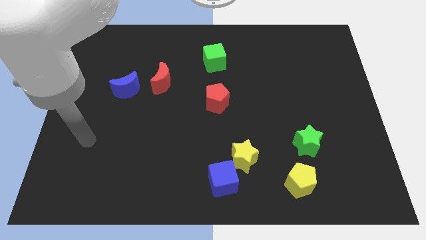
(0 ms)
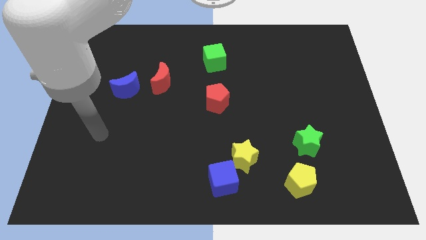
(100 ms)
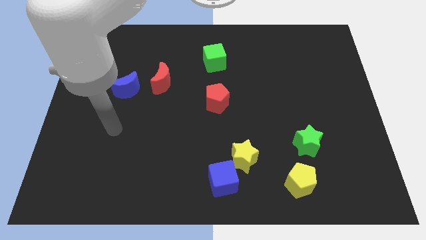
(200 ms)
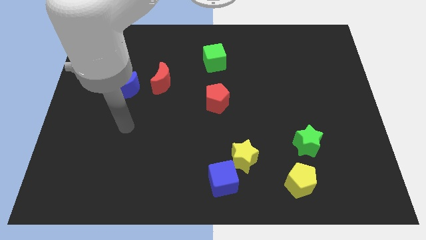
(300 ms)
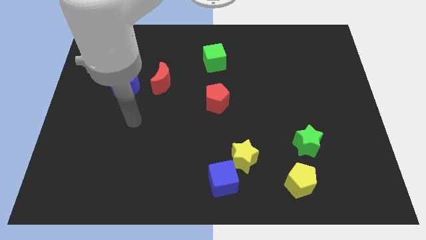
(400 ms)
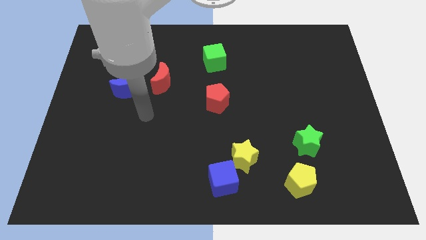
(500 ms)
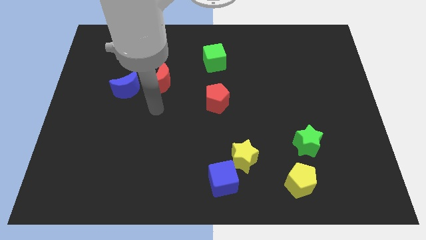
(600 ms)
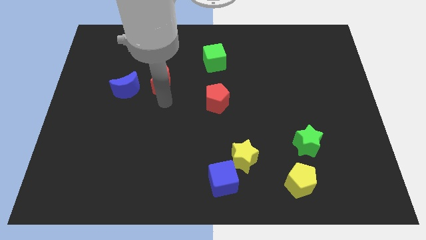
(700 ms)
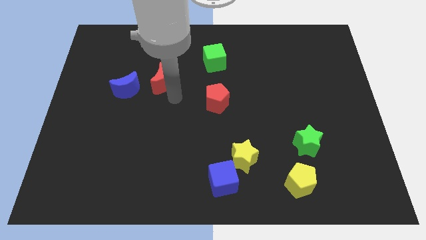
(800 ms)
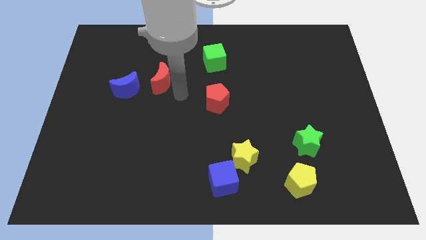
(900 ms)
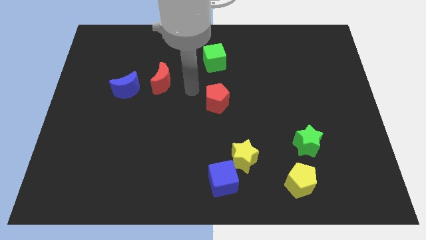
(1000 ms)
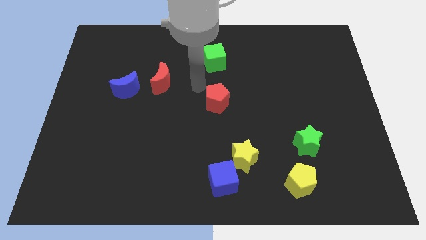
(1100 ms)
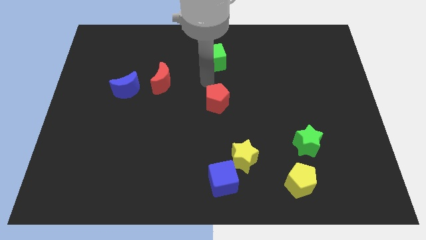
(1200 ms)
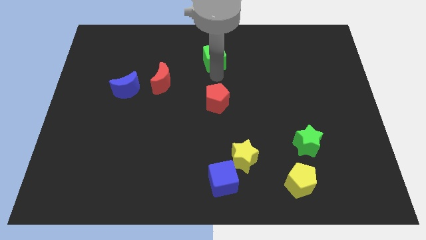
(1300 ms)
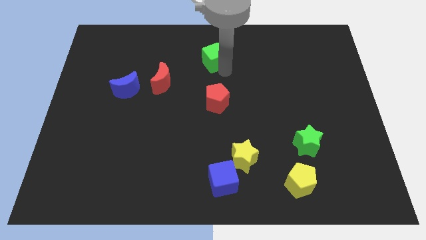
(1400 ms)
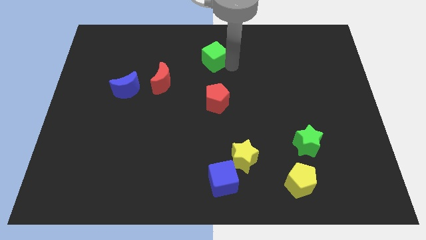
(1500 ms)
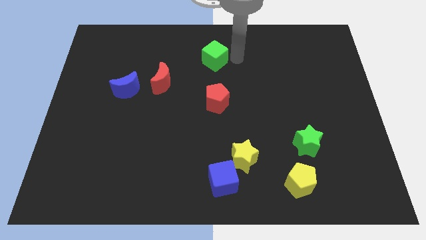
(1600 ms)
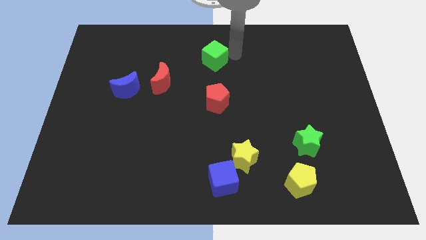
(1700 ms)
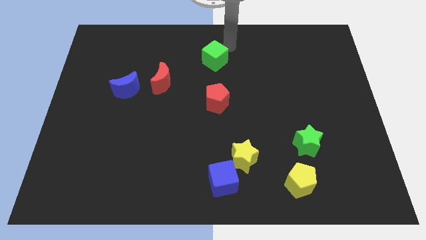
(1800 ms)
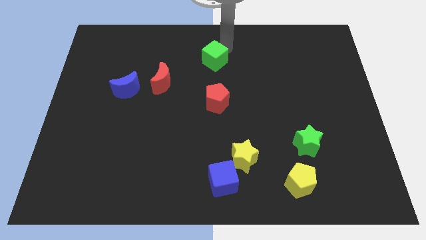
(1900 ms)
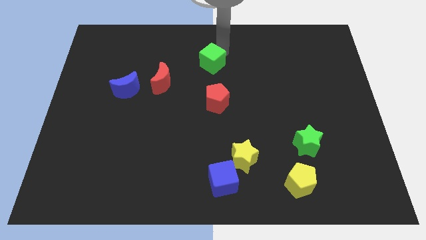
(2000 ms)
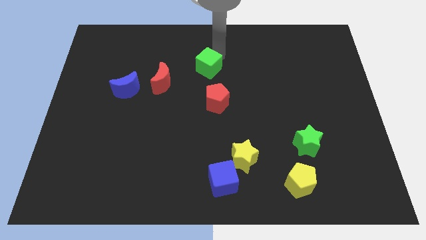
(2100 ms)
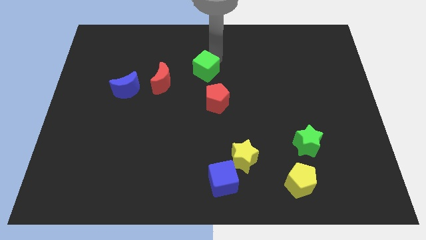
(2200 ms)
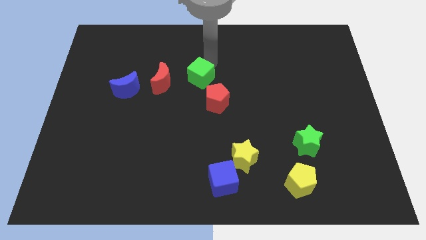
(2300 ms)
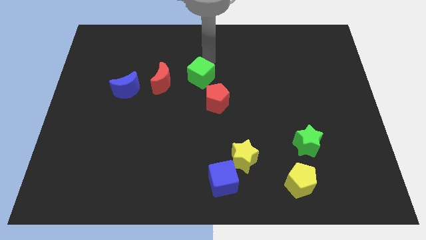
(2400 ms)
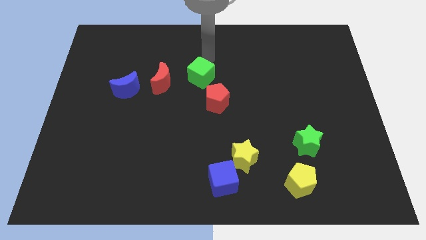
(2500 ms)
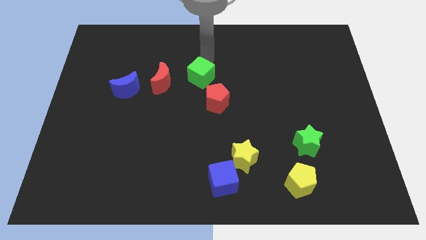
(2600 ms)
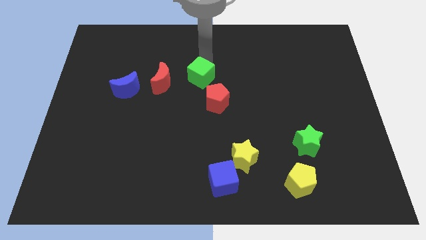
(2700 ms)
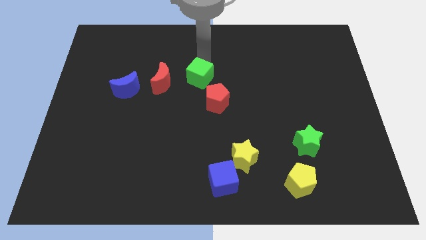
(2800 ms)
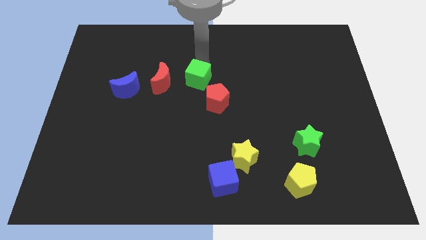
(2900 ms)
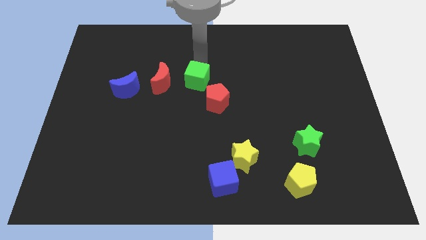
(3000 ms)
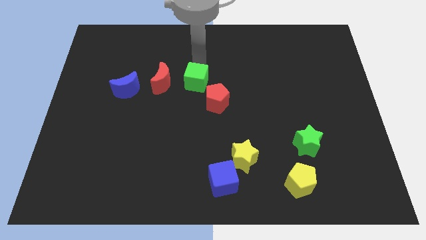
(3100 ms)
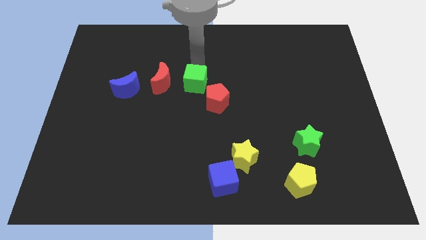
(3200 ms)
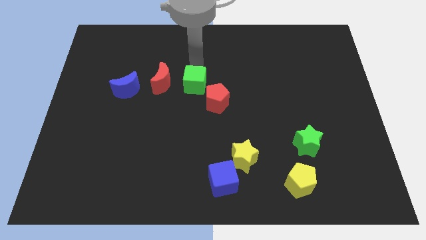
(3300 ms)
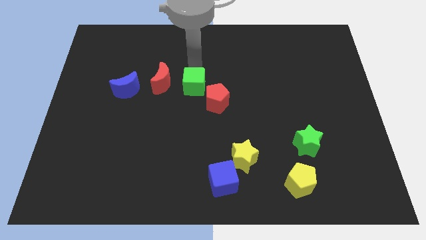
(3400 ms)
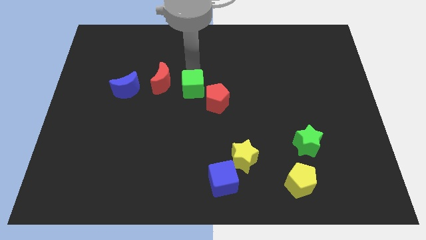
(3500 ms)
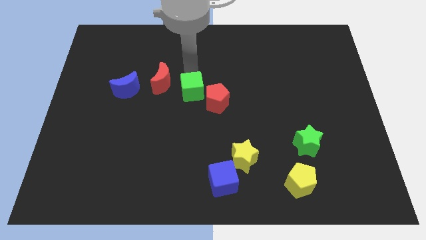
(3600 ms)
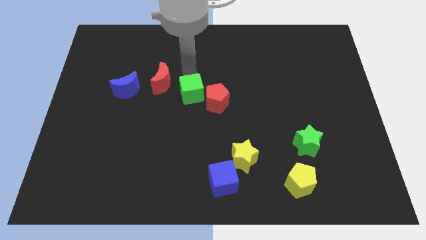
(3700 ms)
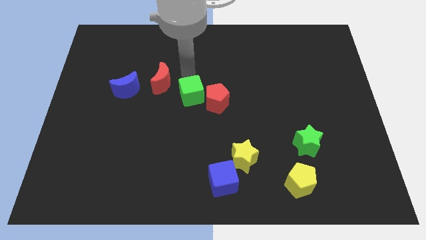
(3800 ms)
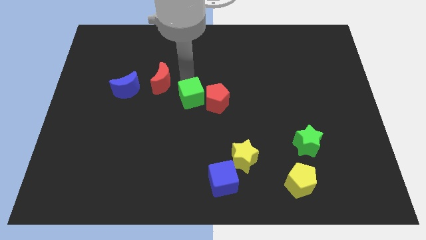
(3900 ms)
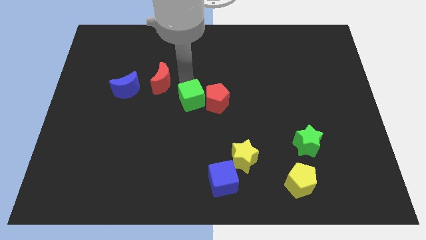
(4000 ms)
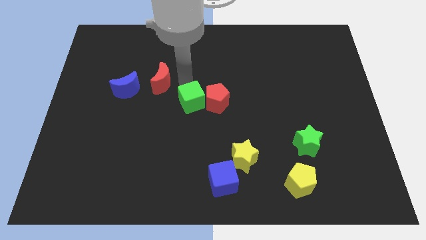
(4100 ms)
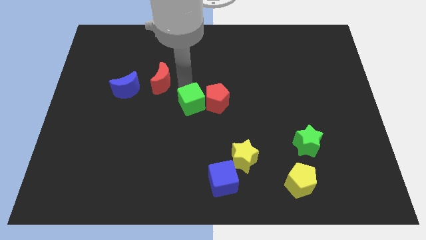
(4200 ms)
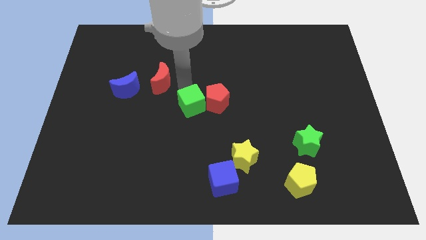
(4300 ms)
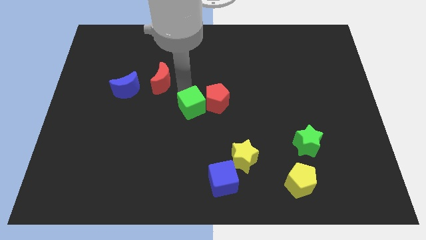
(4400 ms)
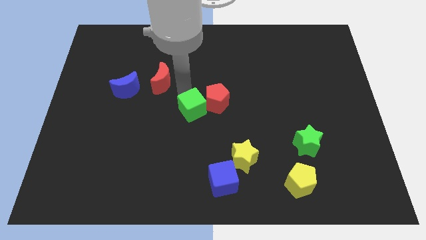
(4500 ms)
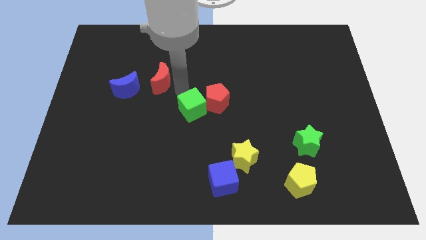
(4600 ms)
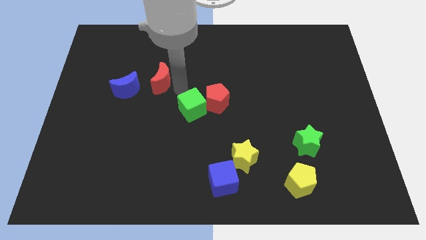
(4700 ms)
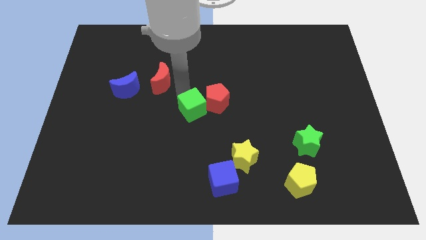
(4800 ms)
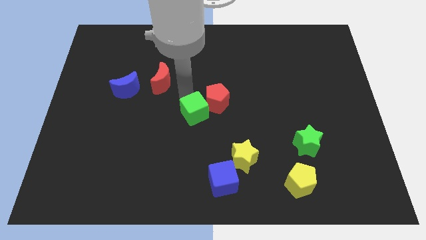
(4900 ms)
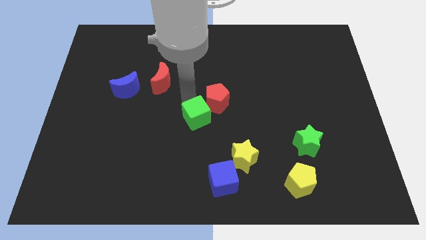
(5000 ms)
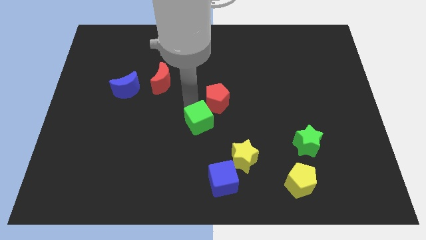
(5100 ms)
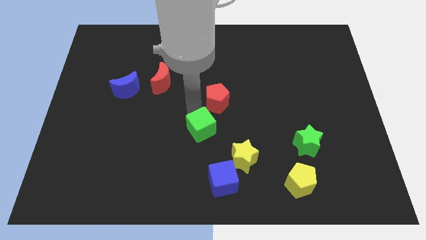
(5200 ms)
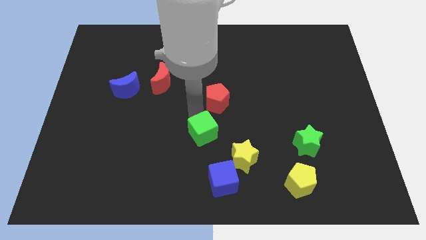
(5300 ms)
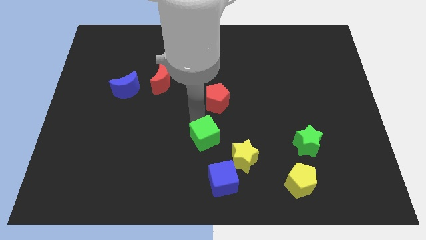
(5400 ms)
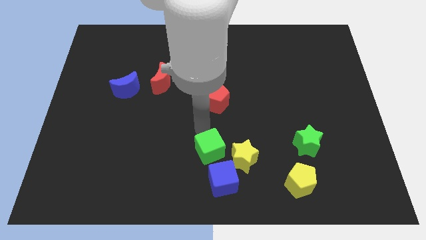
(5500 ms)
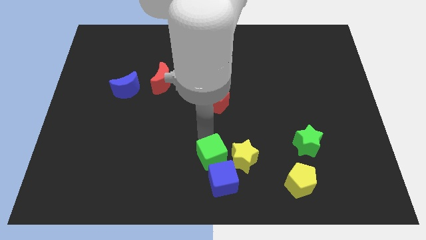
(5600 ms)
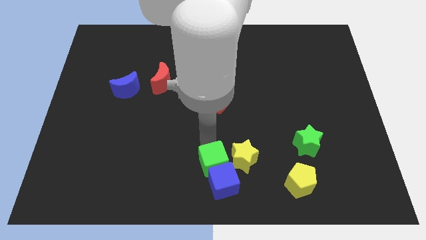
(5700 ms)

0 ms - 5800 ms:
push the green cube to the blue cube

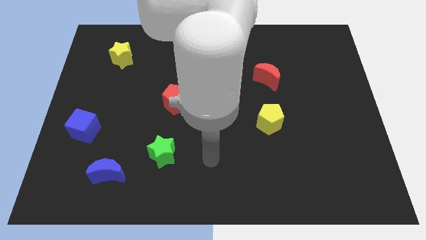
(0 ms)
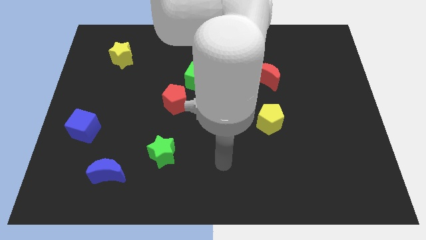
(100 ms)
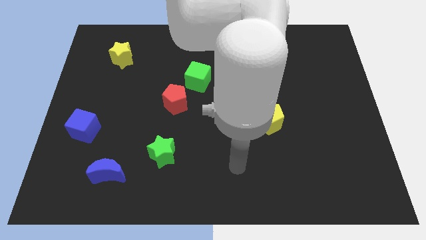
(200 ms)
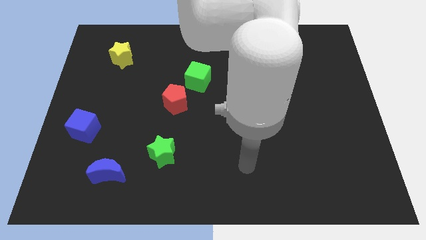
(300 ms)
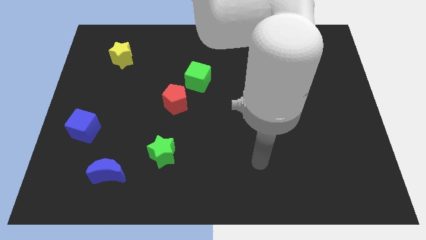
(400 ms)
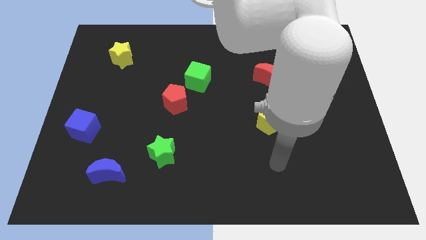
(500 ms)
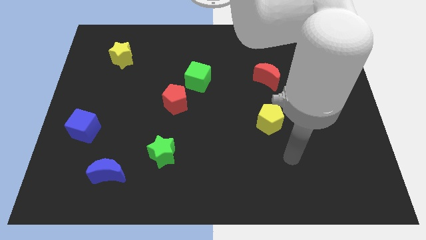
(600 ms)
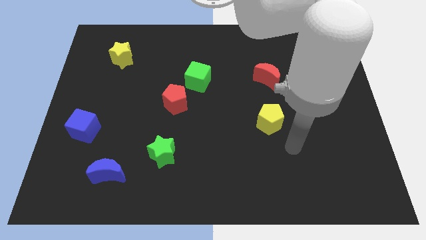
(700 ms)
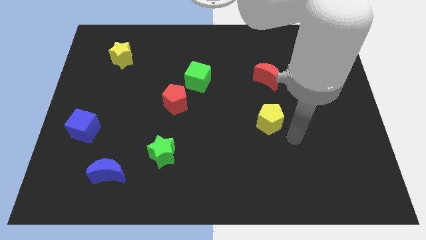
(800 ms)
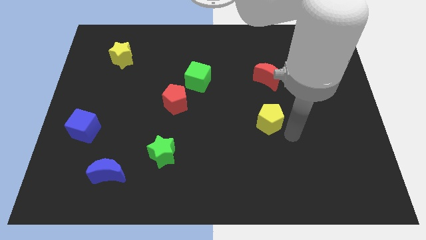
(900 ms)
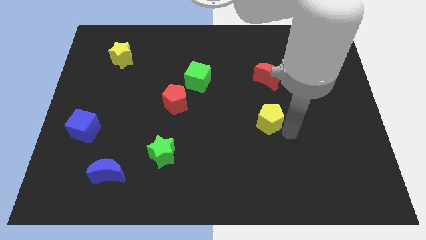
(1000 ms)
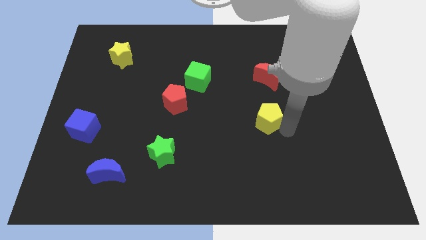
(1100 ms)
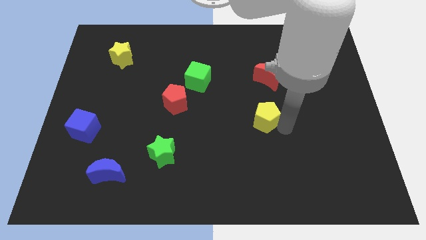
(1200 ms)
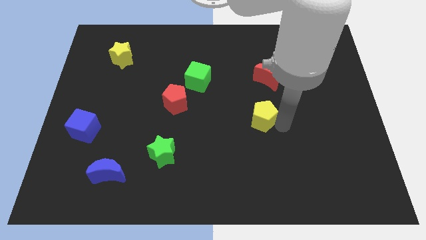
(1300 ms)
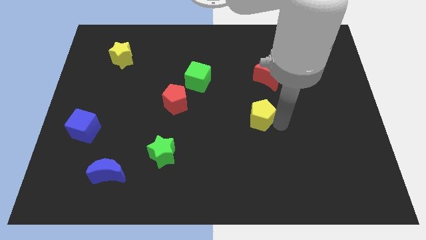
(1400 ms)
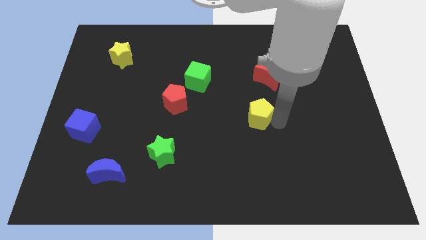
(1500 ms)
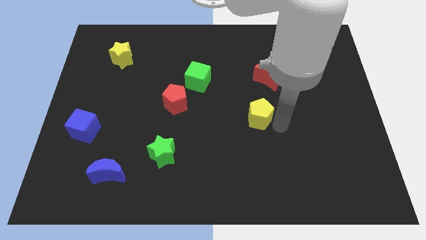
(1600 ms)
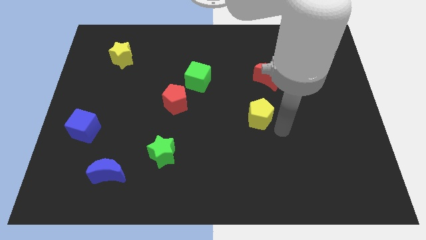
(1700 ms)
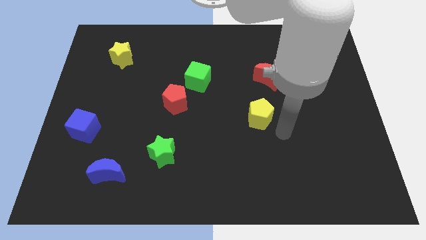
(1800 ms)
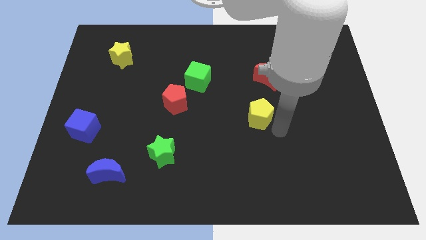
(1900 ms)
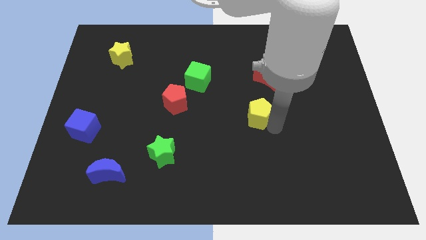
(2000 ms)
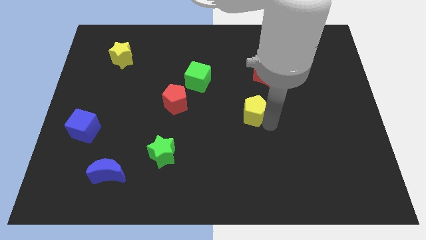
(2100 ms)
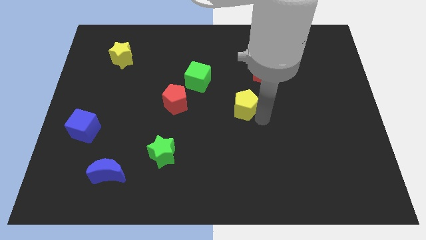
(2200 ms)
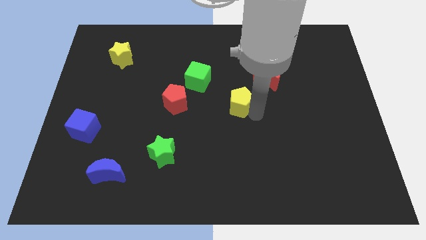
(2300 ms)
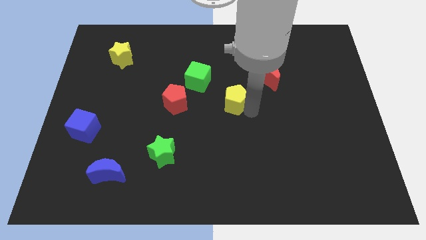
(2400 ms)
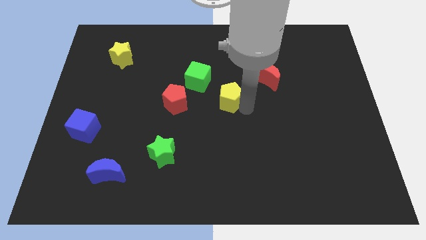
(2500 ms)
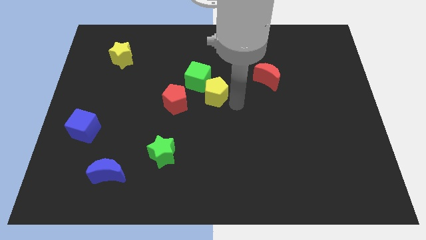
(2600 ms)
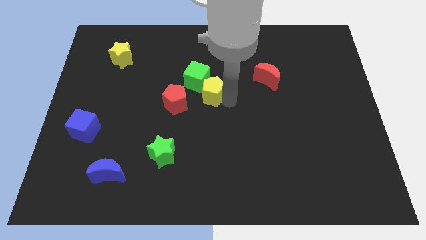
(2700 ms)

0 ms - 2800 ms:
put the yellow pentagon towards the green cube
